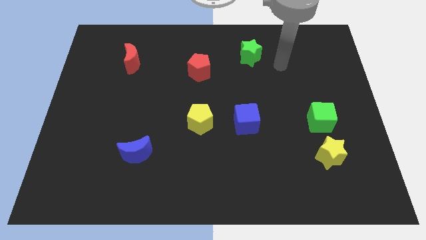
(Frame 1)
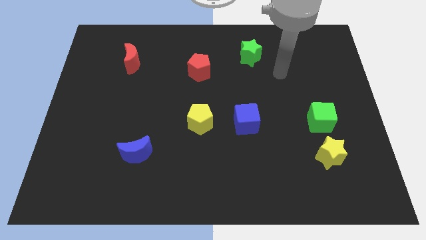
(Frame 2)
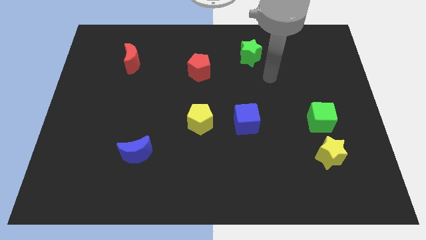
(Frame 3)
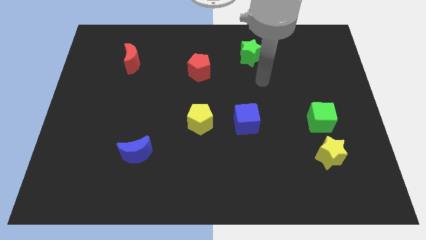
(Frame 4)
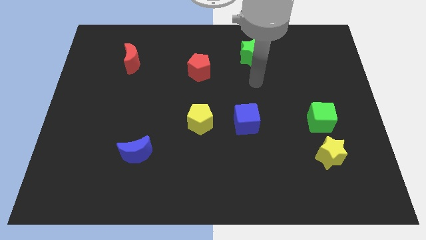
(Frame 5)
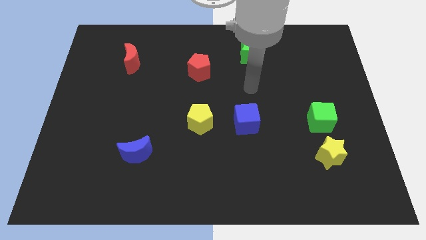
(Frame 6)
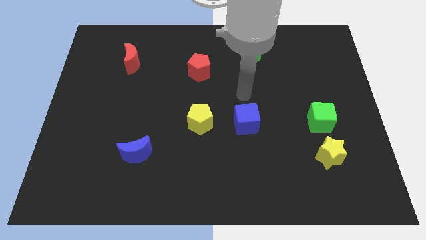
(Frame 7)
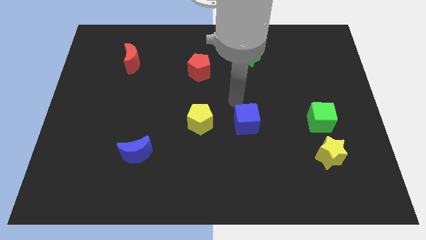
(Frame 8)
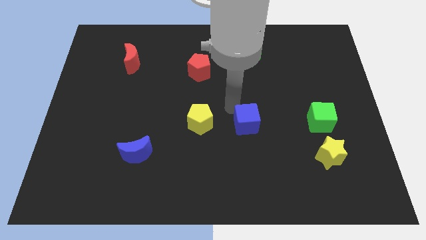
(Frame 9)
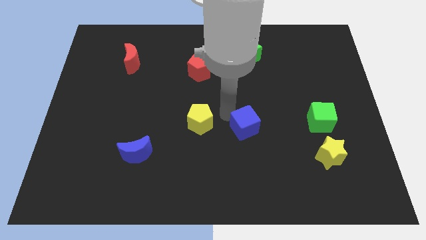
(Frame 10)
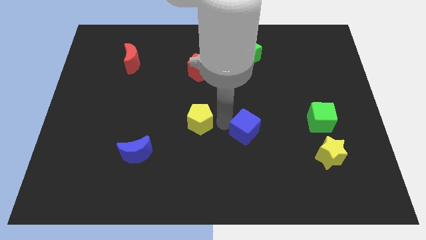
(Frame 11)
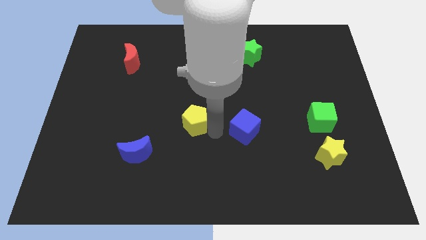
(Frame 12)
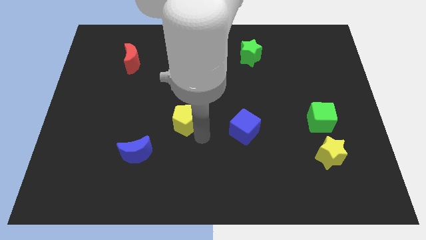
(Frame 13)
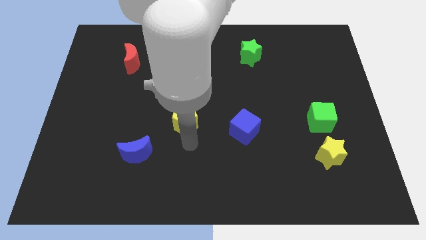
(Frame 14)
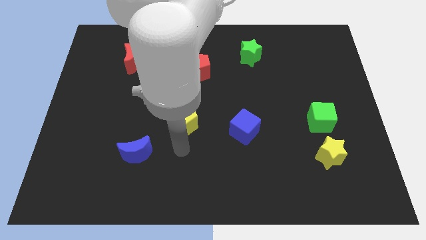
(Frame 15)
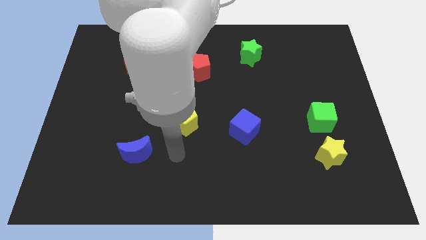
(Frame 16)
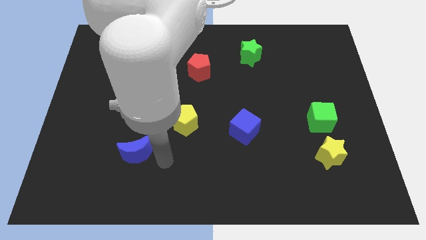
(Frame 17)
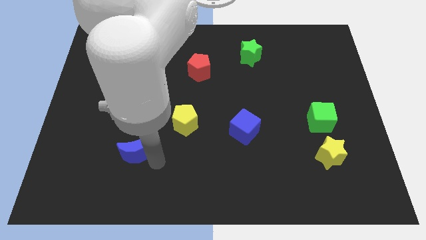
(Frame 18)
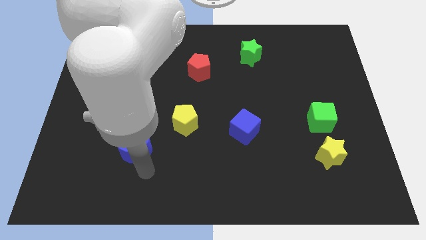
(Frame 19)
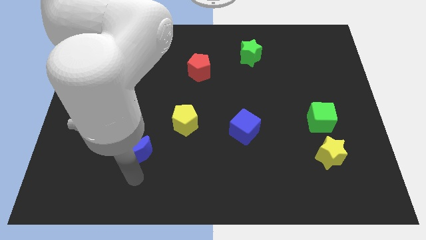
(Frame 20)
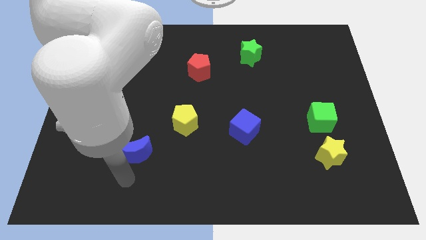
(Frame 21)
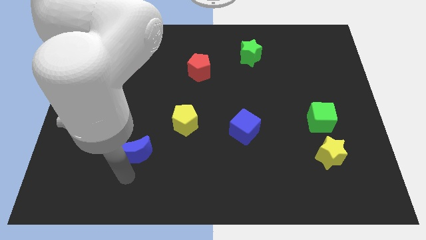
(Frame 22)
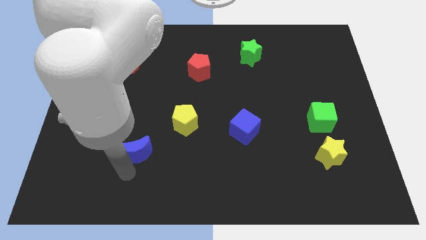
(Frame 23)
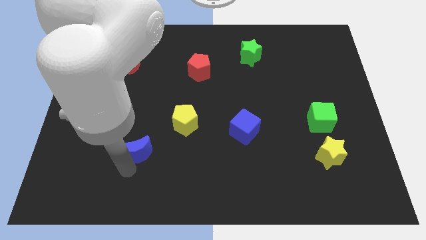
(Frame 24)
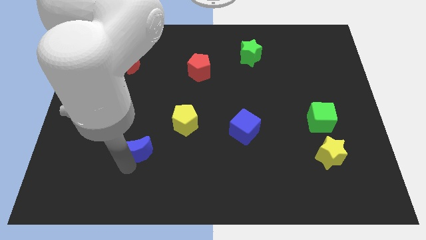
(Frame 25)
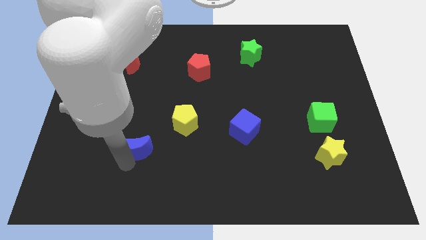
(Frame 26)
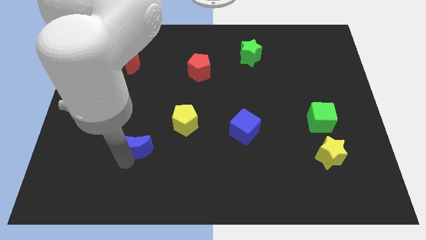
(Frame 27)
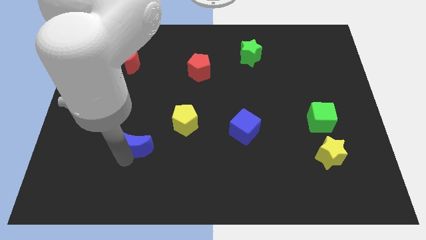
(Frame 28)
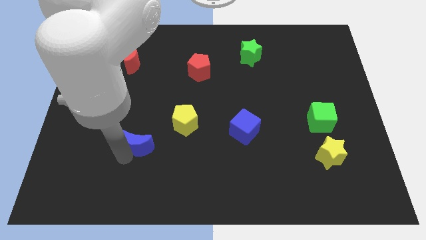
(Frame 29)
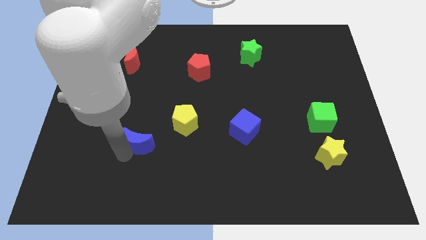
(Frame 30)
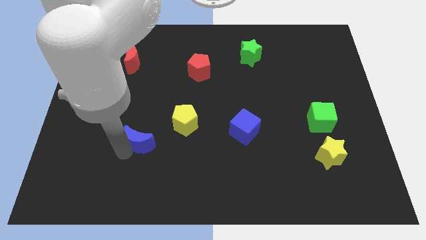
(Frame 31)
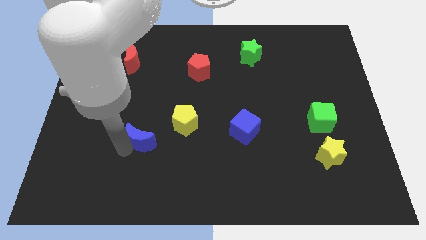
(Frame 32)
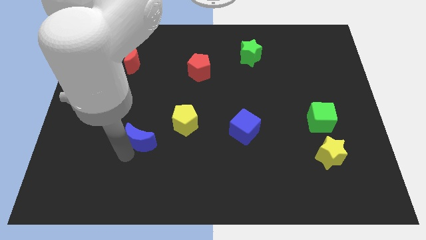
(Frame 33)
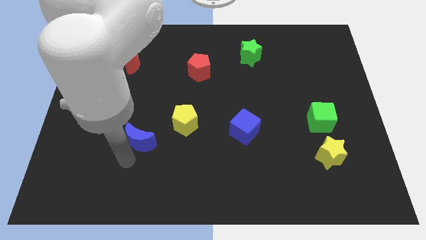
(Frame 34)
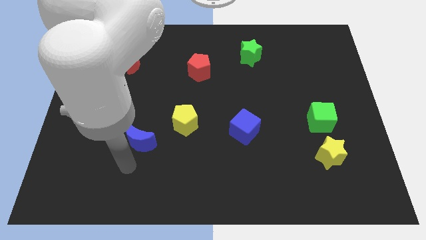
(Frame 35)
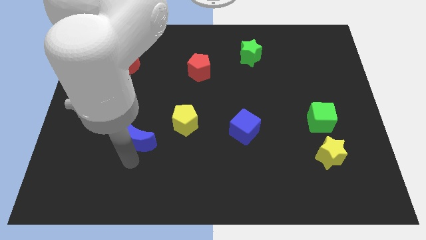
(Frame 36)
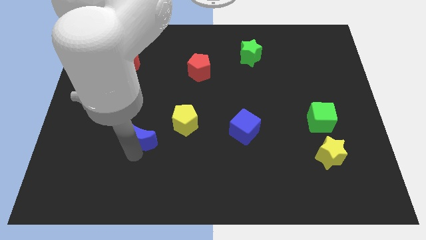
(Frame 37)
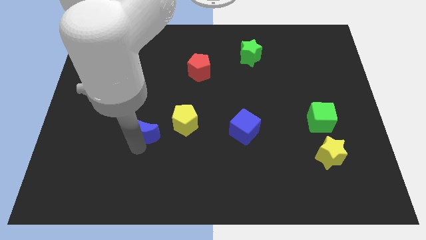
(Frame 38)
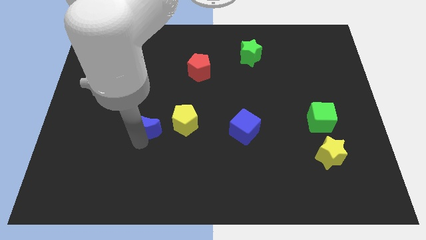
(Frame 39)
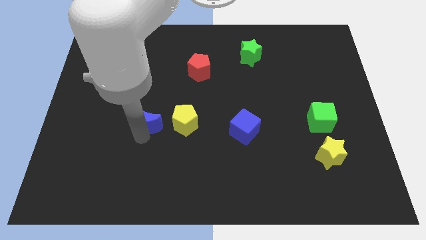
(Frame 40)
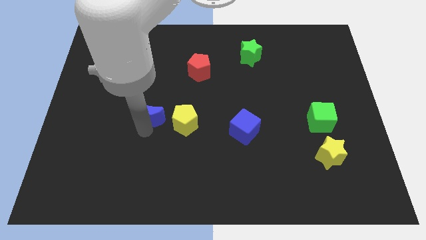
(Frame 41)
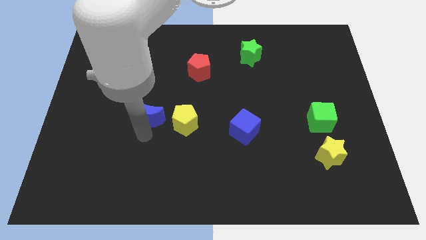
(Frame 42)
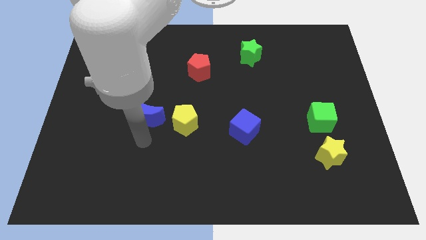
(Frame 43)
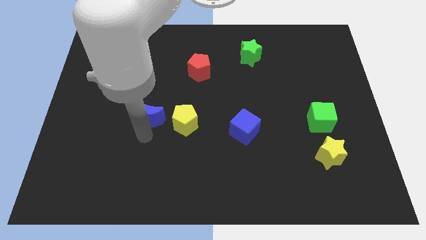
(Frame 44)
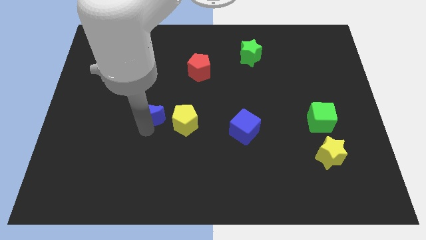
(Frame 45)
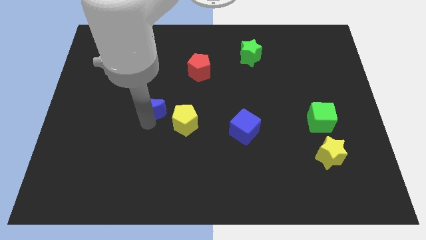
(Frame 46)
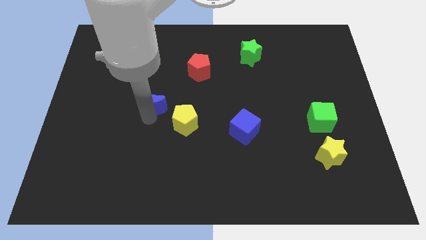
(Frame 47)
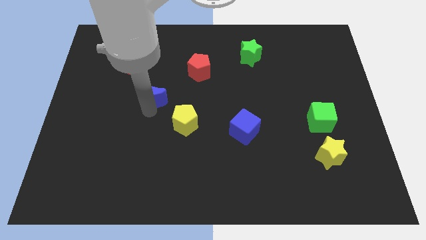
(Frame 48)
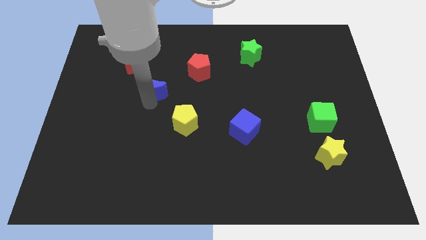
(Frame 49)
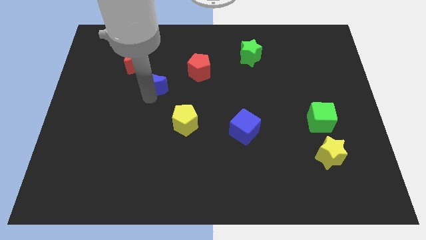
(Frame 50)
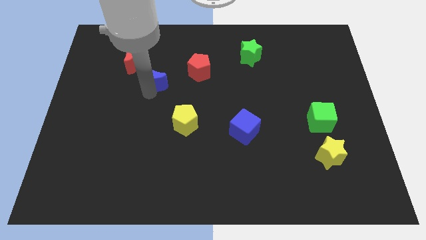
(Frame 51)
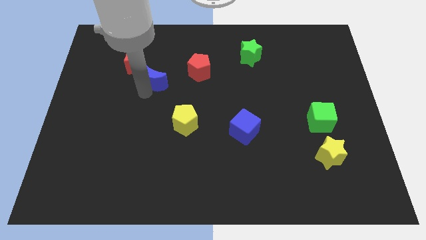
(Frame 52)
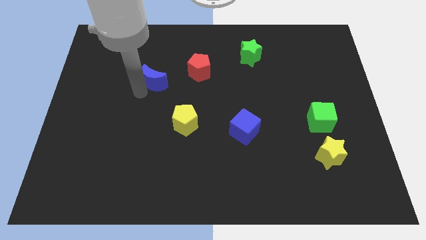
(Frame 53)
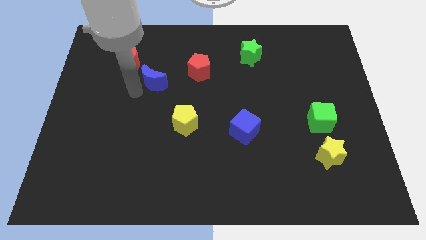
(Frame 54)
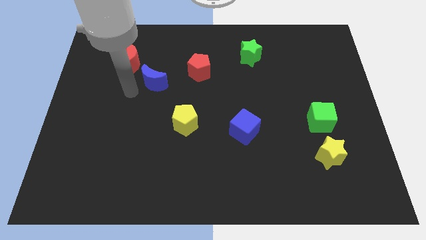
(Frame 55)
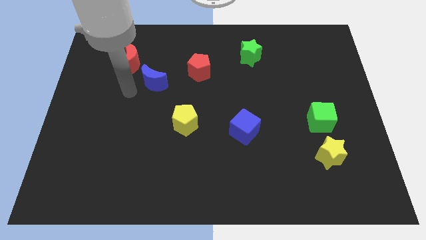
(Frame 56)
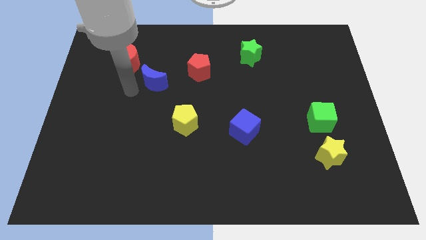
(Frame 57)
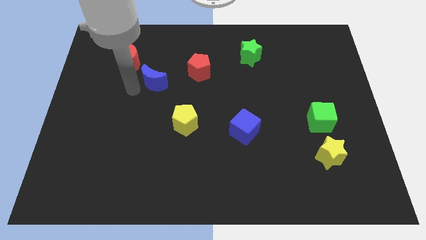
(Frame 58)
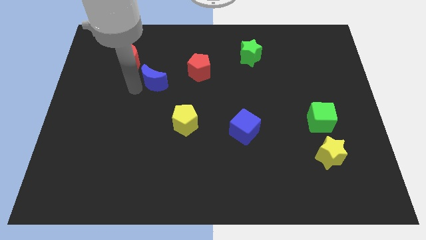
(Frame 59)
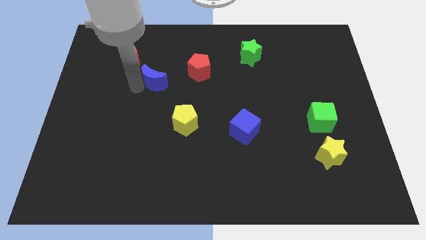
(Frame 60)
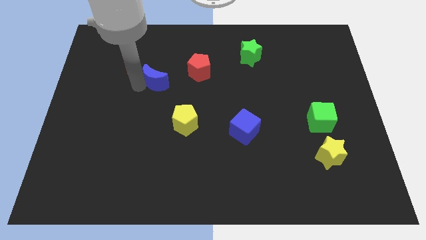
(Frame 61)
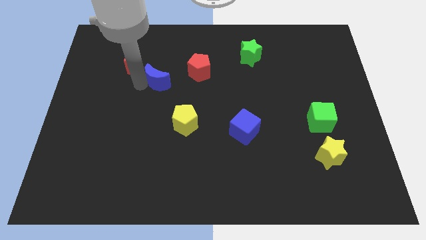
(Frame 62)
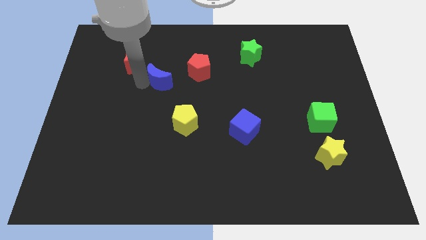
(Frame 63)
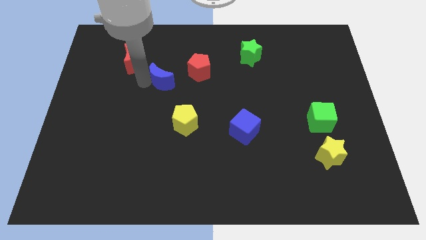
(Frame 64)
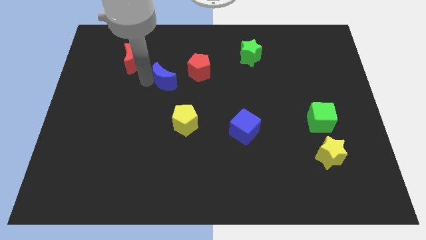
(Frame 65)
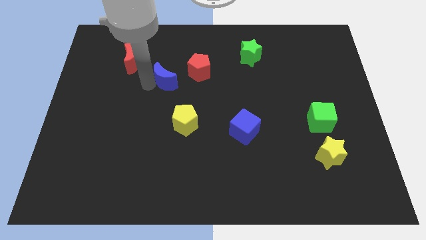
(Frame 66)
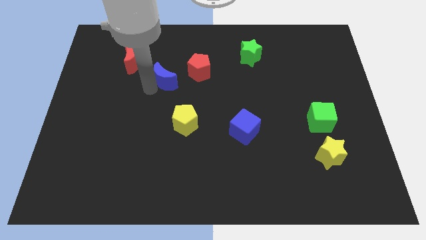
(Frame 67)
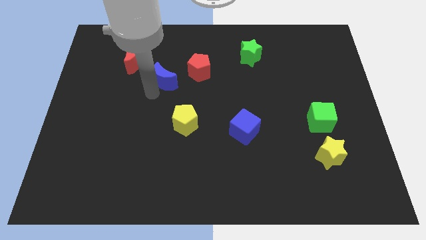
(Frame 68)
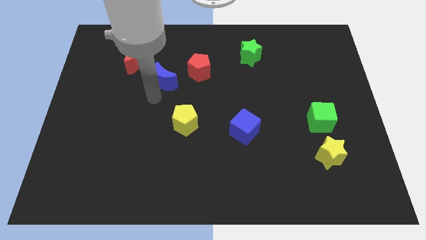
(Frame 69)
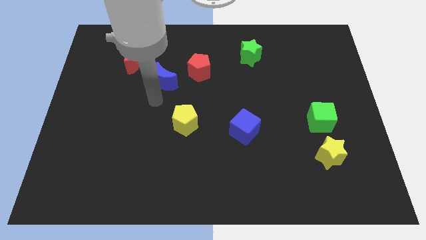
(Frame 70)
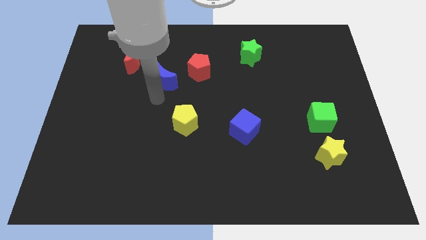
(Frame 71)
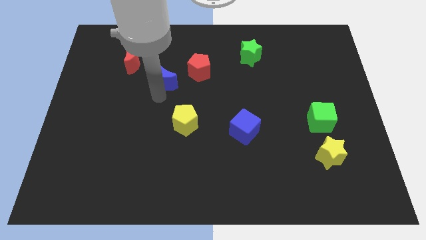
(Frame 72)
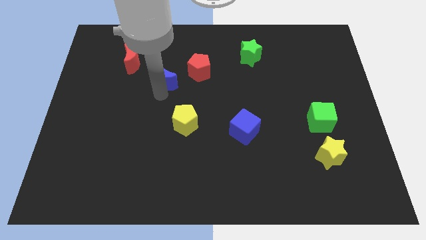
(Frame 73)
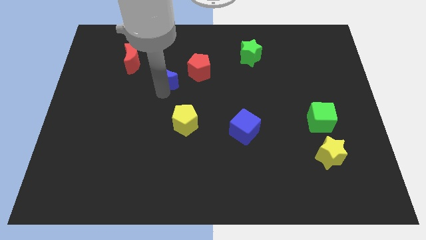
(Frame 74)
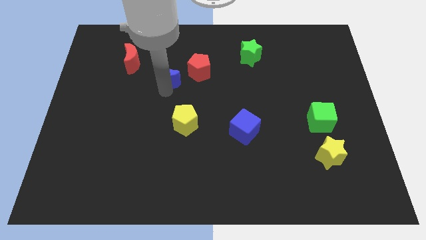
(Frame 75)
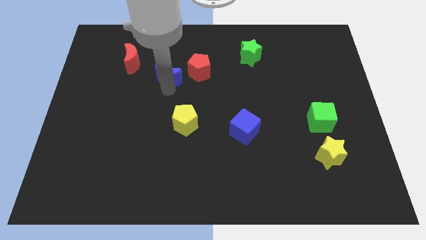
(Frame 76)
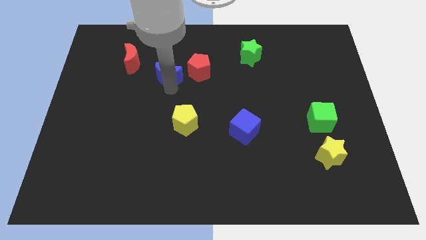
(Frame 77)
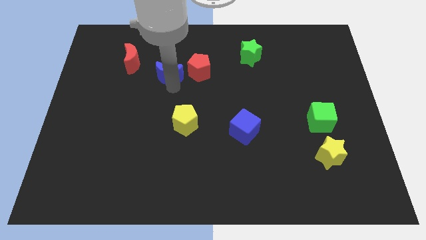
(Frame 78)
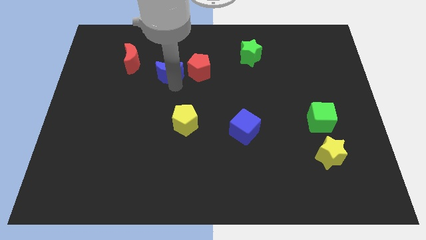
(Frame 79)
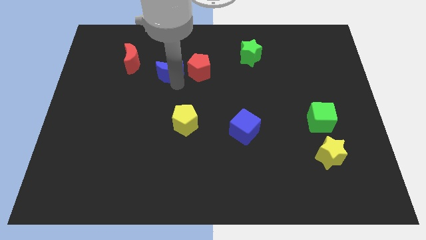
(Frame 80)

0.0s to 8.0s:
slide the blue moon to the right of the red moon
